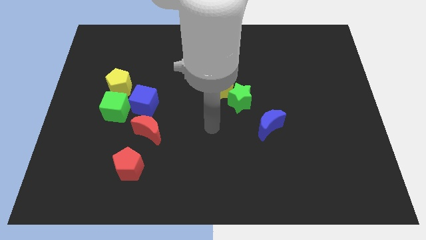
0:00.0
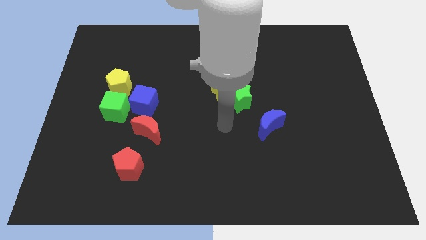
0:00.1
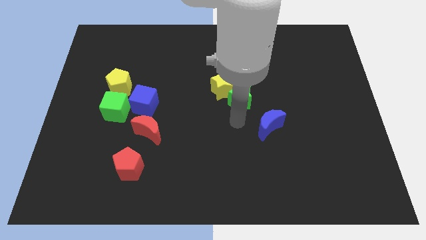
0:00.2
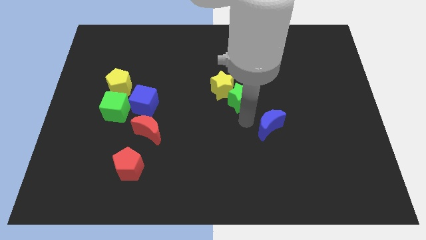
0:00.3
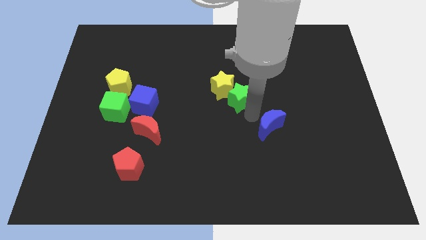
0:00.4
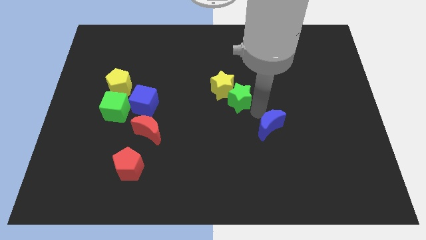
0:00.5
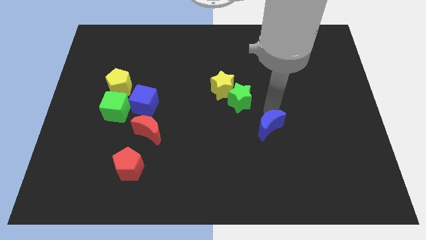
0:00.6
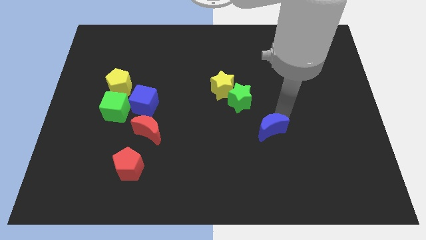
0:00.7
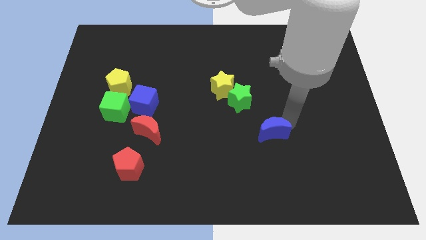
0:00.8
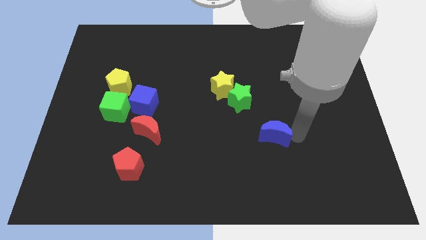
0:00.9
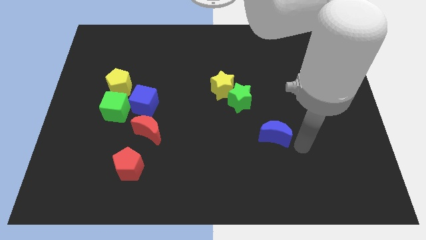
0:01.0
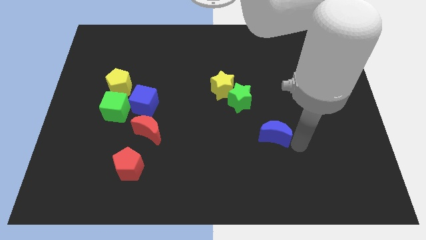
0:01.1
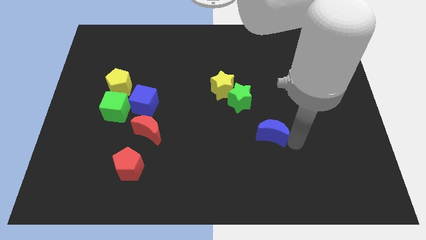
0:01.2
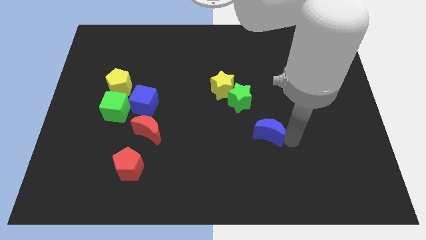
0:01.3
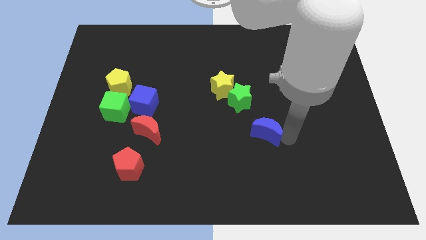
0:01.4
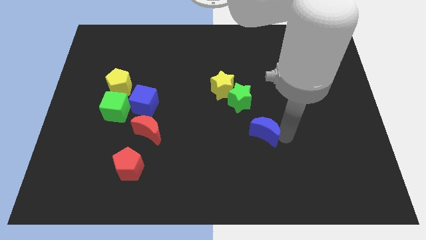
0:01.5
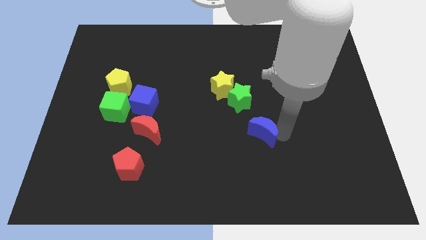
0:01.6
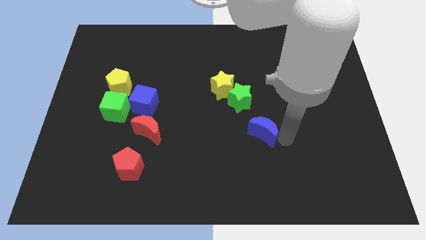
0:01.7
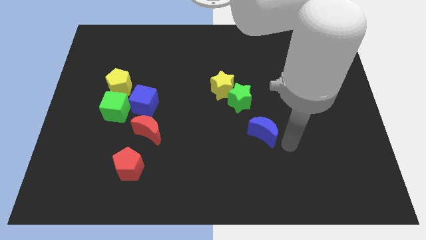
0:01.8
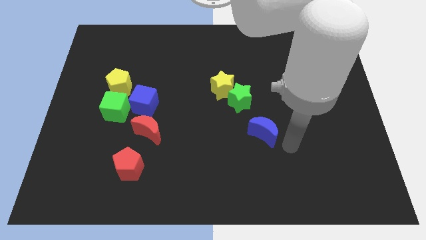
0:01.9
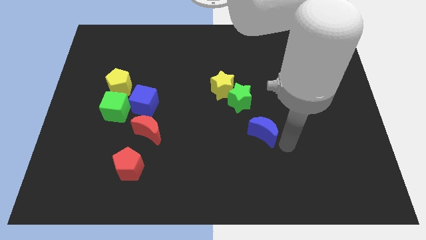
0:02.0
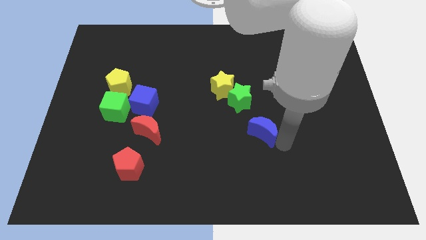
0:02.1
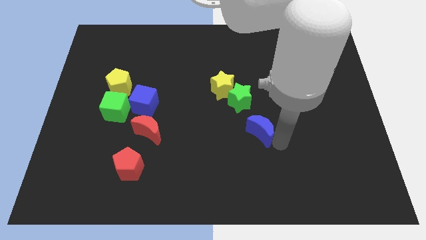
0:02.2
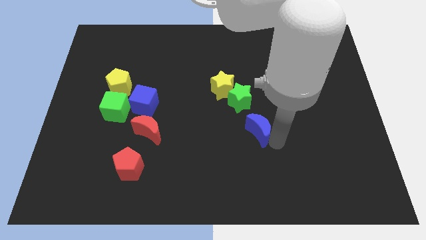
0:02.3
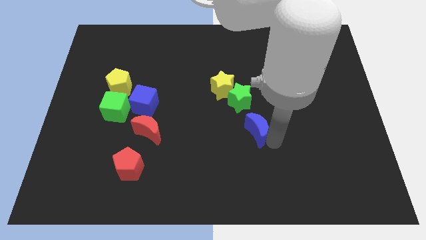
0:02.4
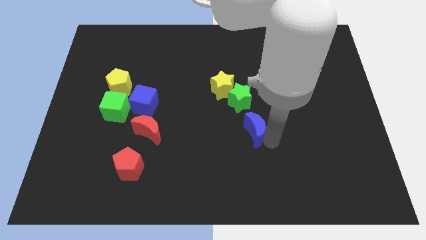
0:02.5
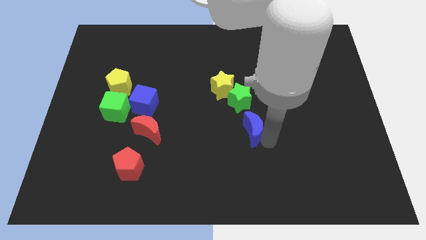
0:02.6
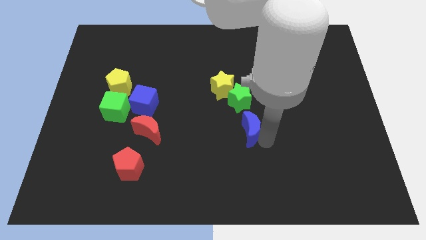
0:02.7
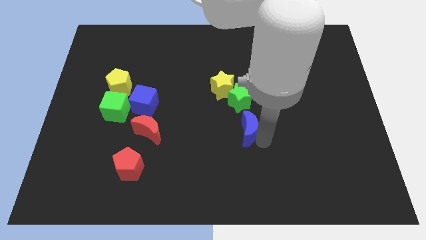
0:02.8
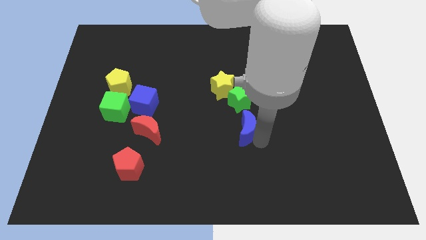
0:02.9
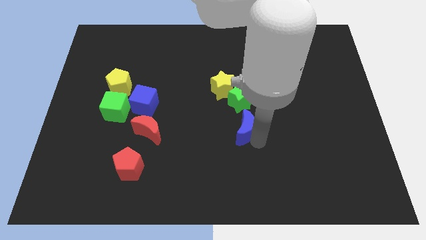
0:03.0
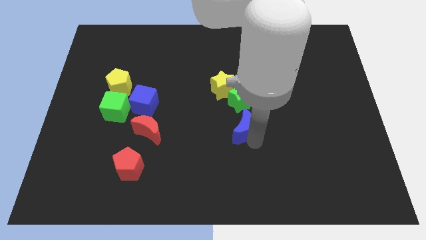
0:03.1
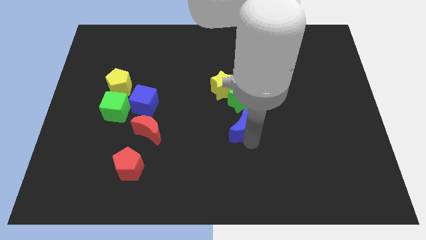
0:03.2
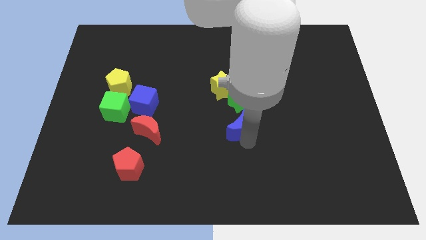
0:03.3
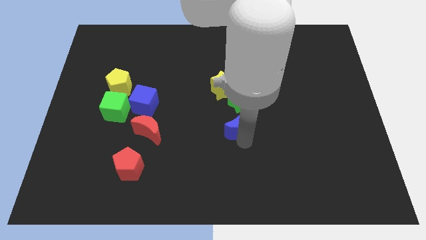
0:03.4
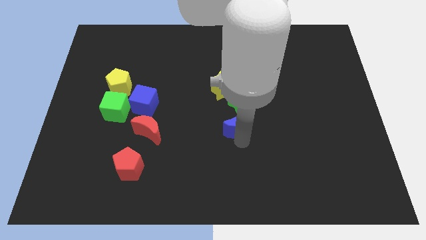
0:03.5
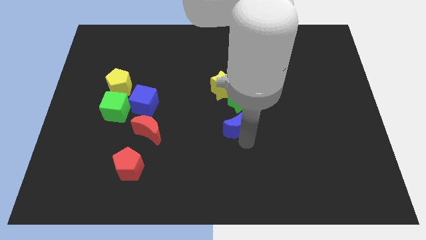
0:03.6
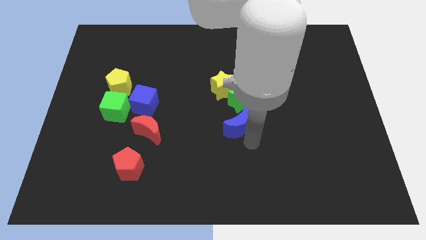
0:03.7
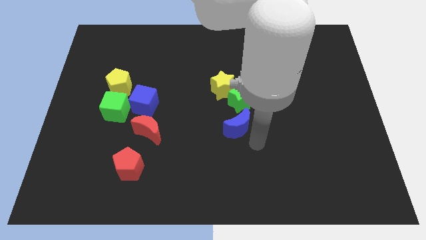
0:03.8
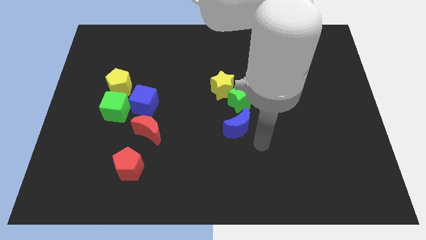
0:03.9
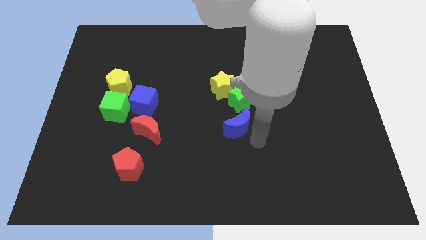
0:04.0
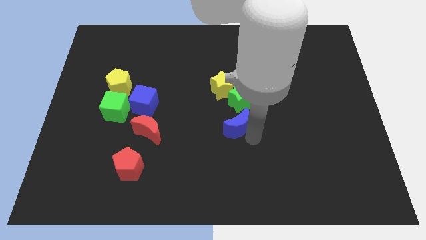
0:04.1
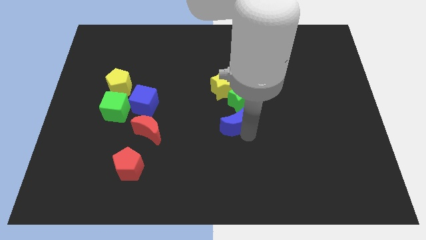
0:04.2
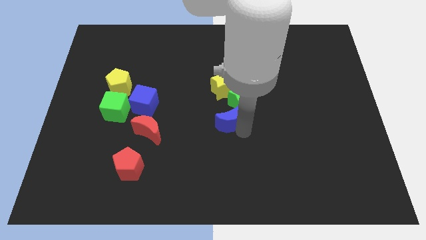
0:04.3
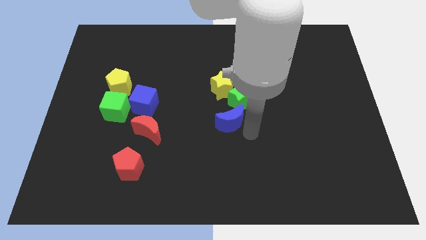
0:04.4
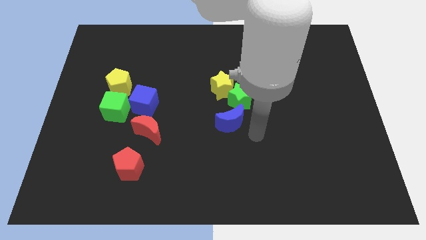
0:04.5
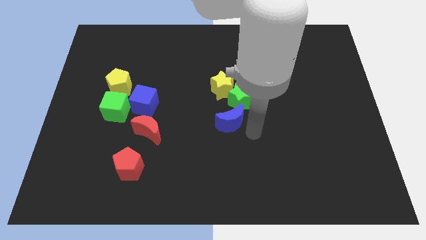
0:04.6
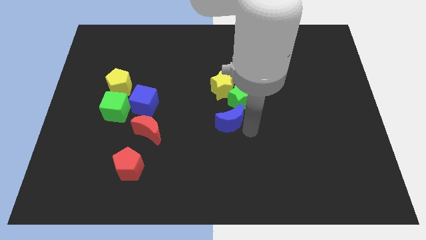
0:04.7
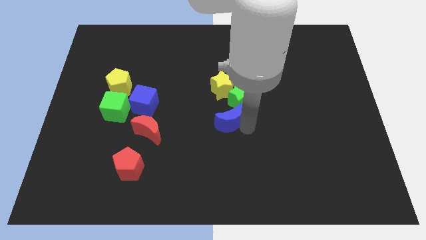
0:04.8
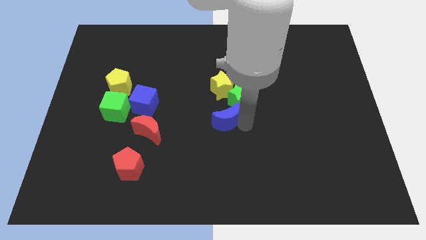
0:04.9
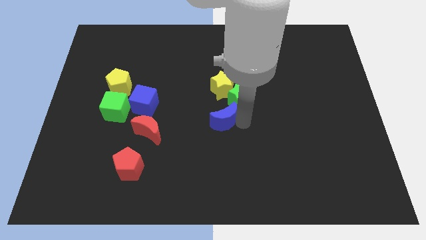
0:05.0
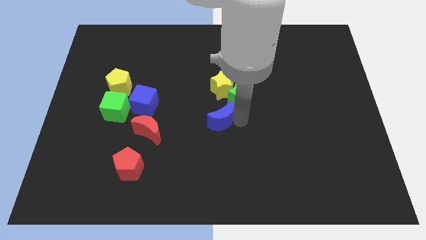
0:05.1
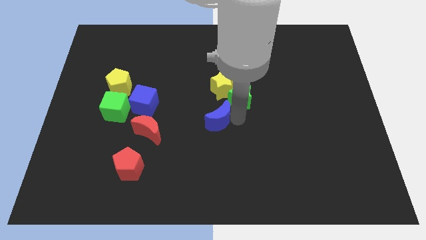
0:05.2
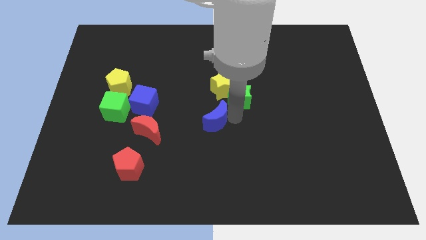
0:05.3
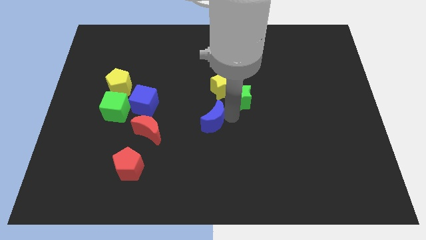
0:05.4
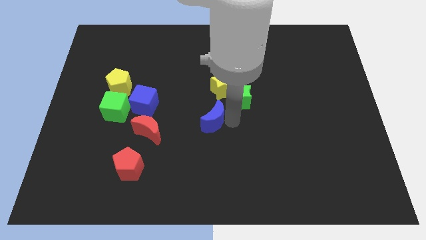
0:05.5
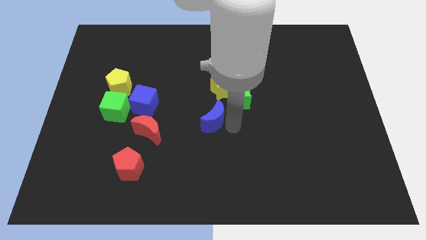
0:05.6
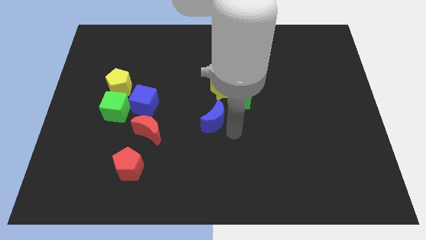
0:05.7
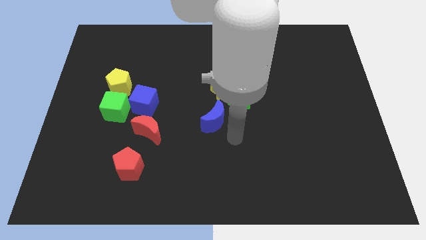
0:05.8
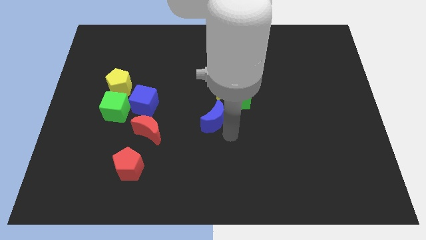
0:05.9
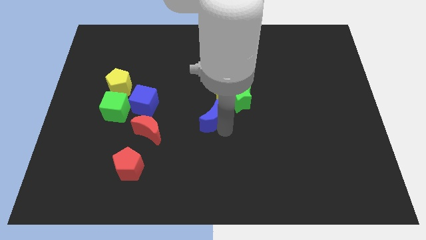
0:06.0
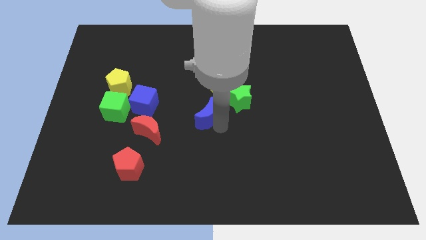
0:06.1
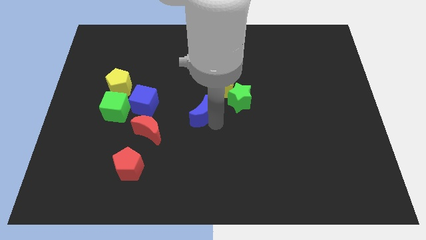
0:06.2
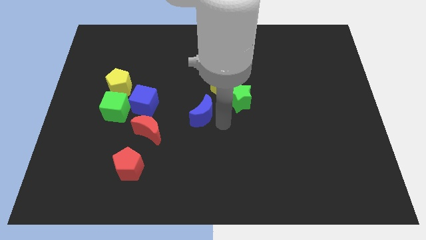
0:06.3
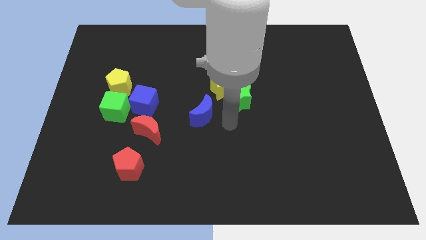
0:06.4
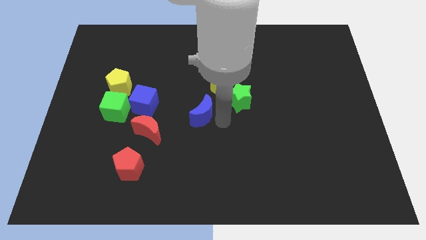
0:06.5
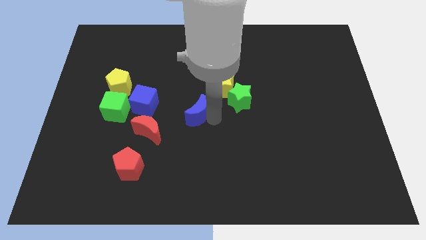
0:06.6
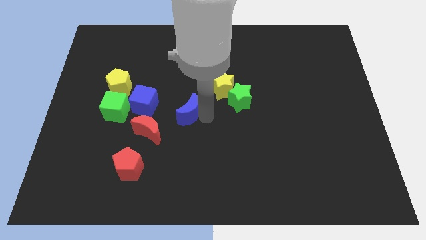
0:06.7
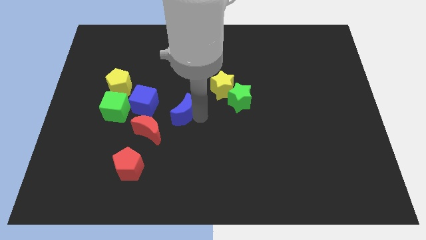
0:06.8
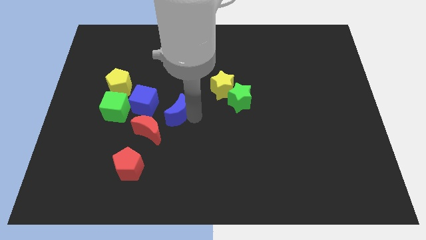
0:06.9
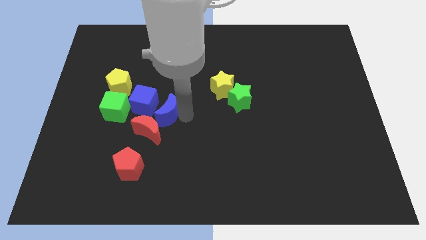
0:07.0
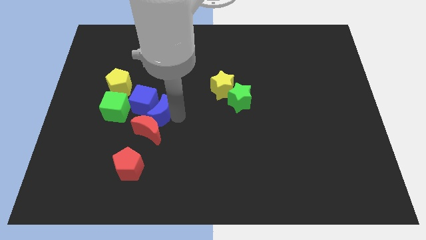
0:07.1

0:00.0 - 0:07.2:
move the blue moon to the blue cube
